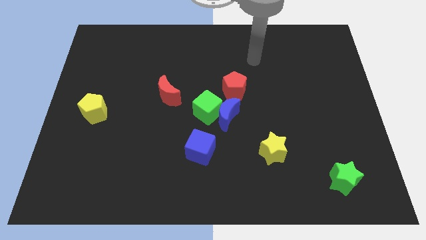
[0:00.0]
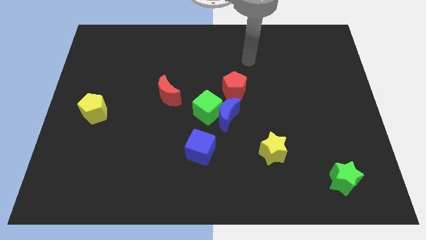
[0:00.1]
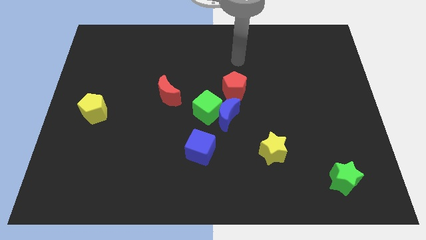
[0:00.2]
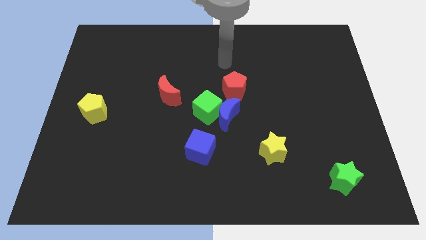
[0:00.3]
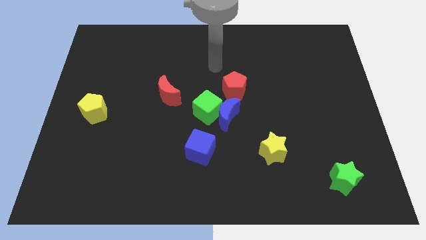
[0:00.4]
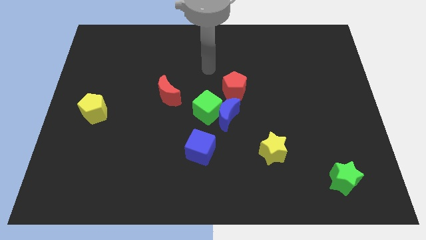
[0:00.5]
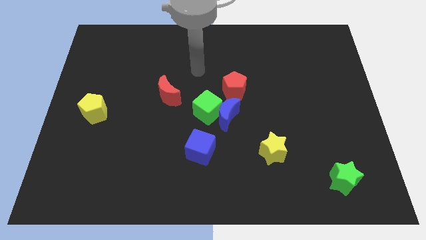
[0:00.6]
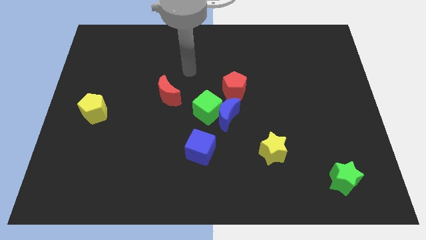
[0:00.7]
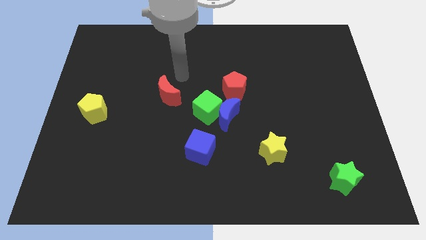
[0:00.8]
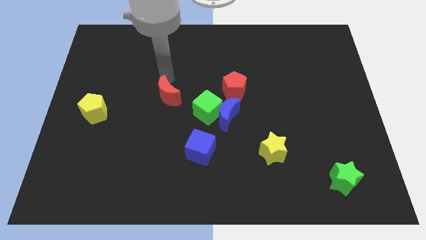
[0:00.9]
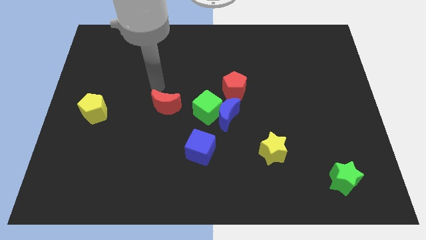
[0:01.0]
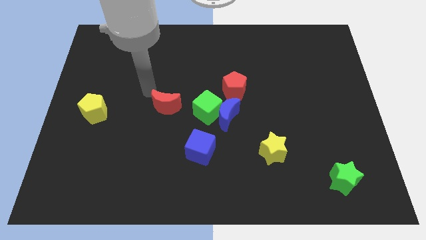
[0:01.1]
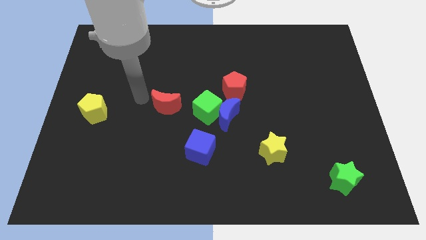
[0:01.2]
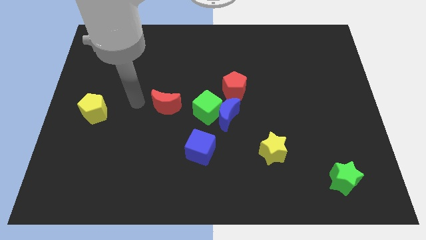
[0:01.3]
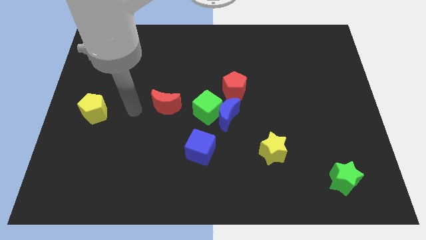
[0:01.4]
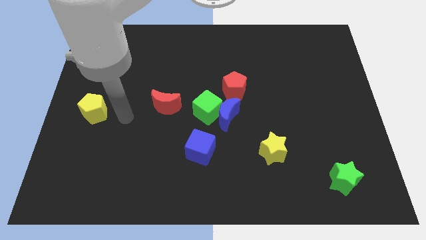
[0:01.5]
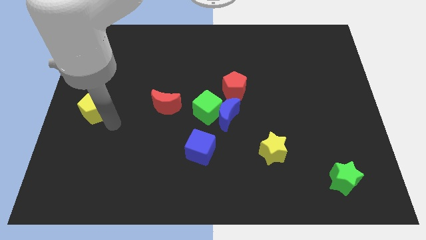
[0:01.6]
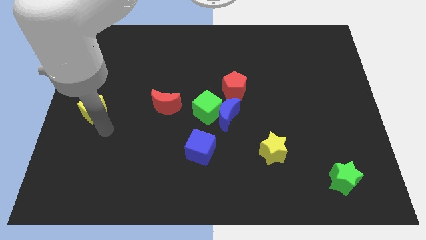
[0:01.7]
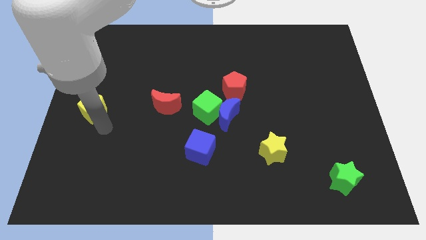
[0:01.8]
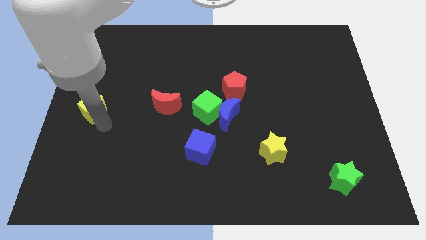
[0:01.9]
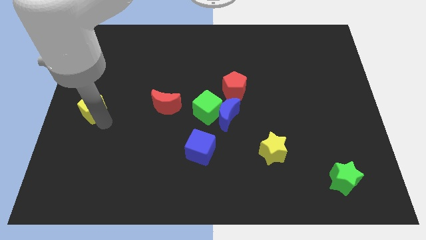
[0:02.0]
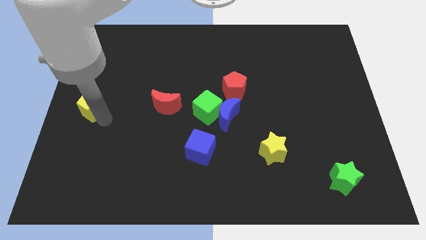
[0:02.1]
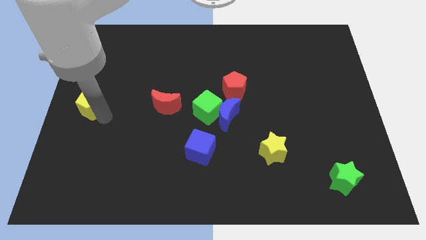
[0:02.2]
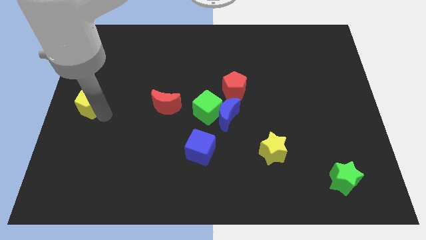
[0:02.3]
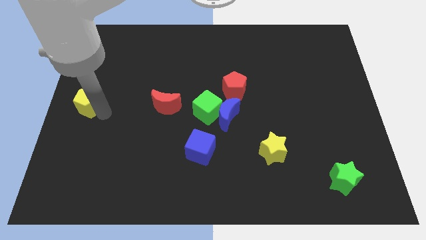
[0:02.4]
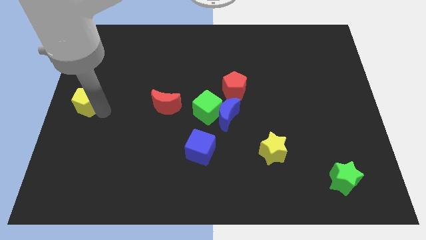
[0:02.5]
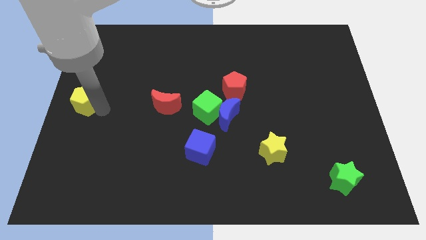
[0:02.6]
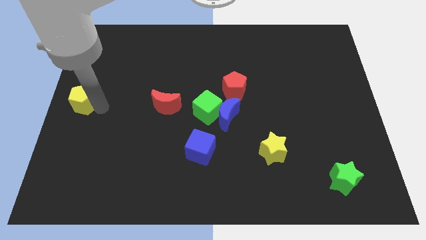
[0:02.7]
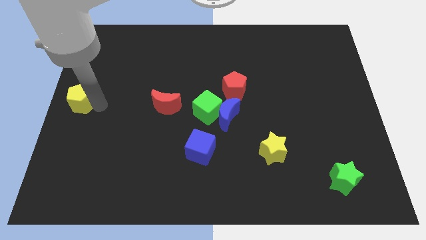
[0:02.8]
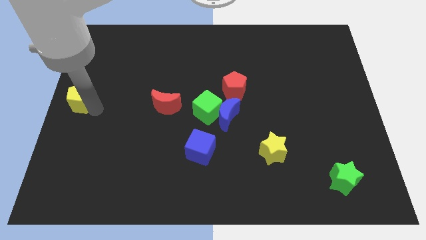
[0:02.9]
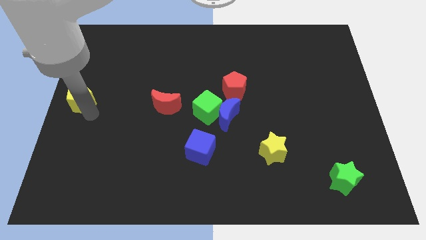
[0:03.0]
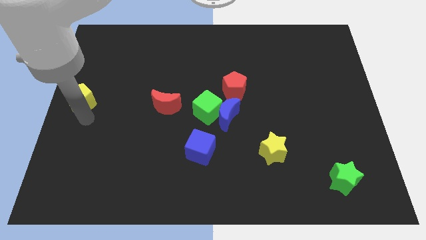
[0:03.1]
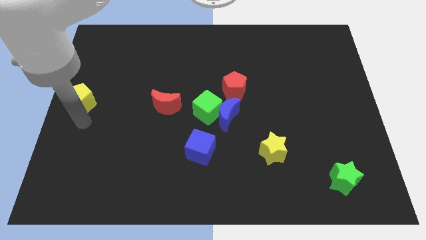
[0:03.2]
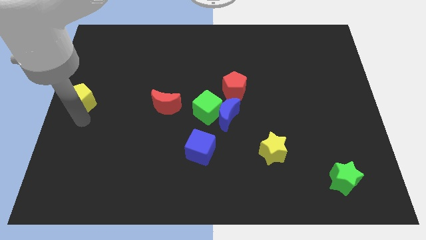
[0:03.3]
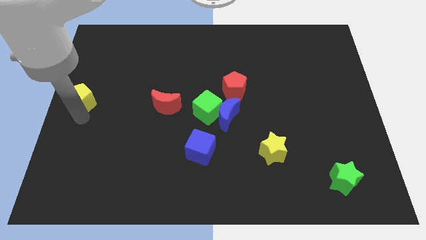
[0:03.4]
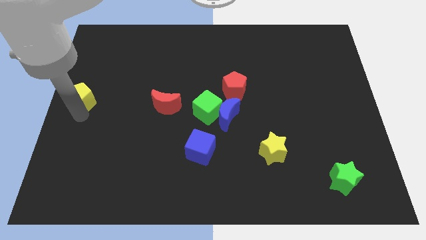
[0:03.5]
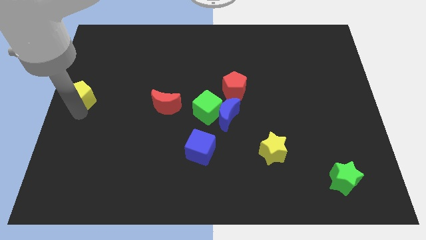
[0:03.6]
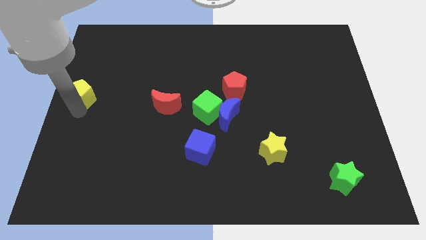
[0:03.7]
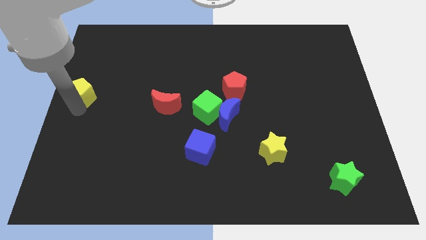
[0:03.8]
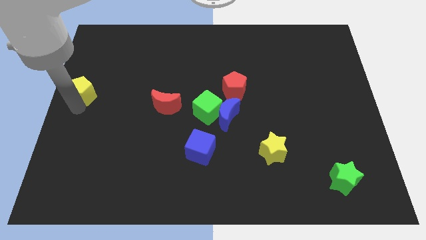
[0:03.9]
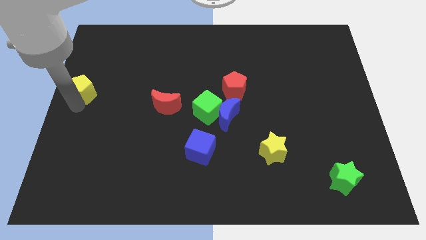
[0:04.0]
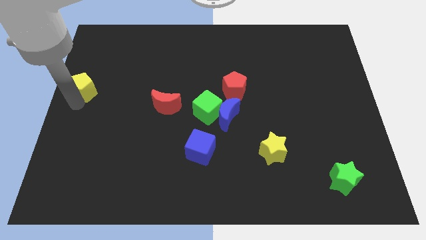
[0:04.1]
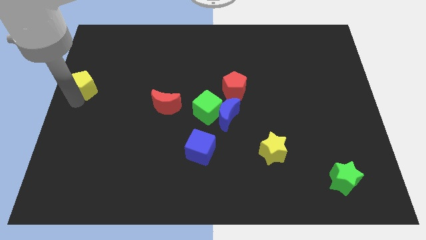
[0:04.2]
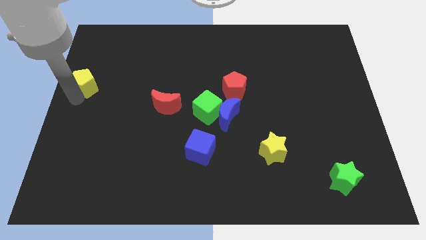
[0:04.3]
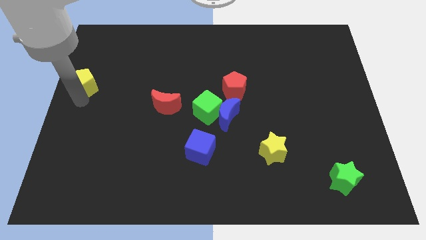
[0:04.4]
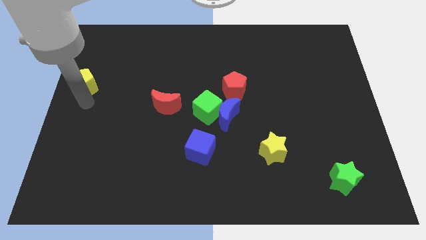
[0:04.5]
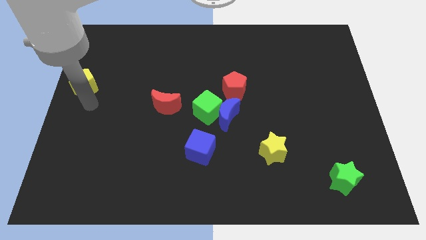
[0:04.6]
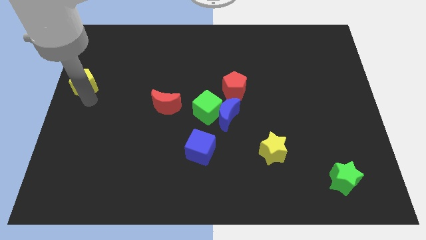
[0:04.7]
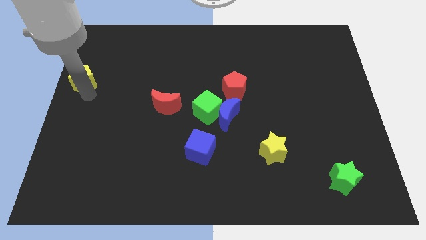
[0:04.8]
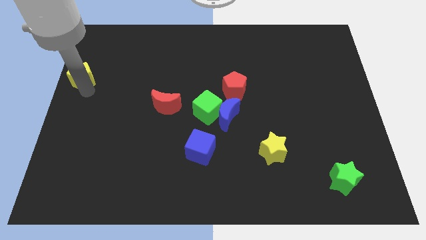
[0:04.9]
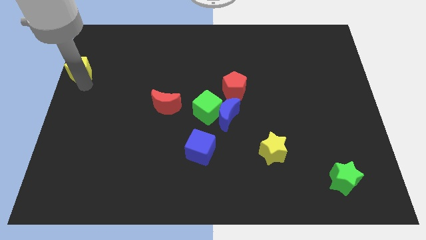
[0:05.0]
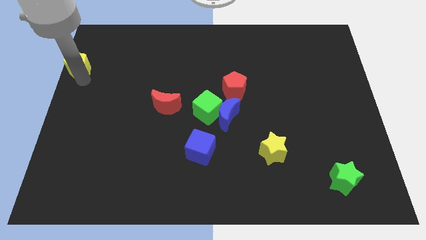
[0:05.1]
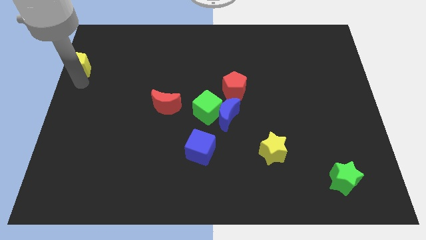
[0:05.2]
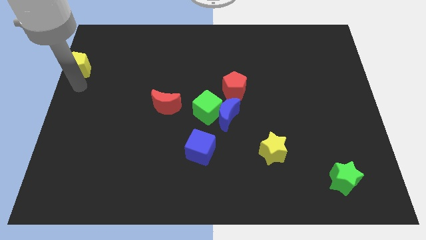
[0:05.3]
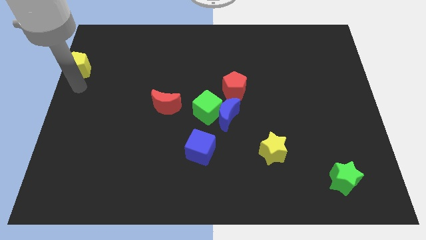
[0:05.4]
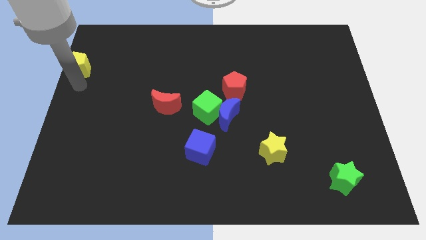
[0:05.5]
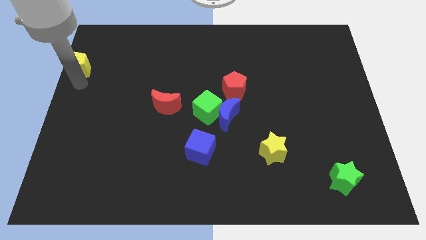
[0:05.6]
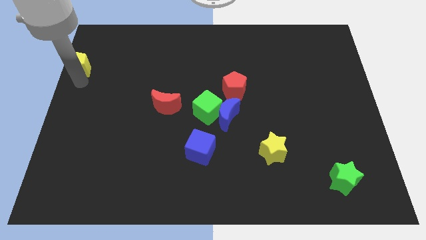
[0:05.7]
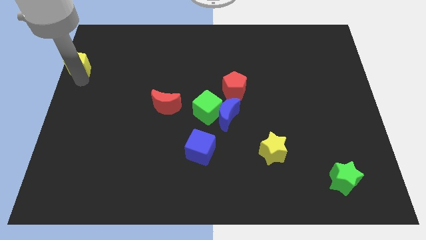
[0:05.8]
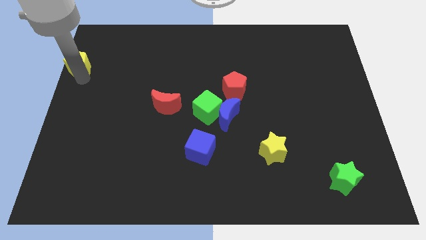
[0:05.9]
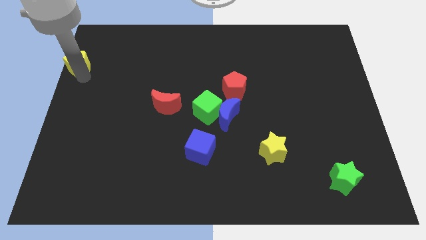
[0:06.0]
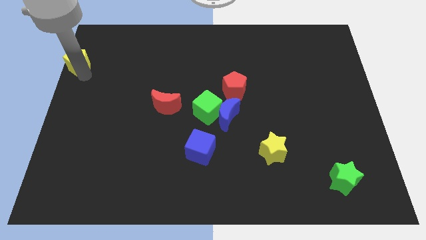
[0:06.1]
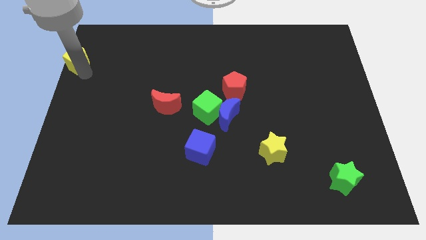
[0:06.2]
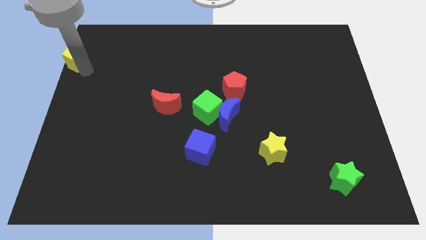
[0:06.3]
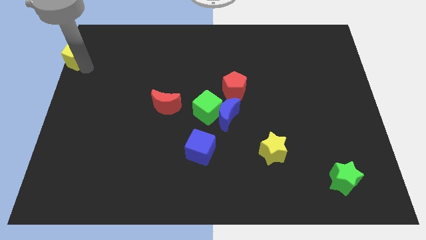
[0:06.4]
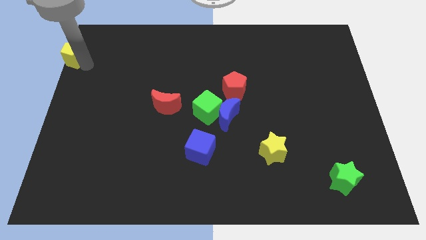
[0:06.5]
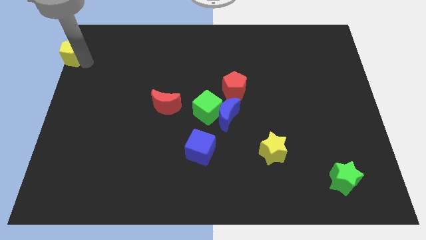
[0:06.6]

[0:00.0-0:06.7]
push the yellow pentagon to the top left
